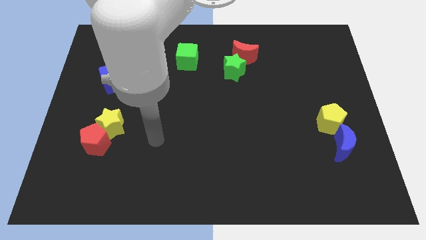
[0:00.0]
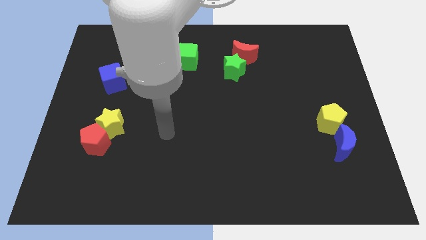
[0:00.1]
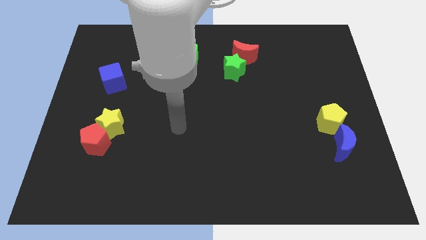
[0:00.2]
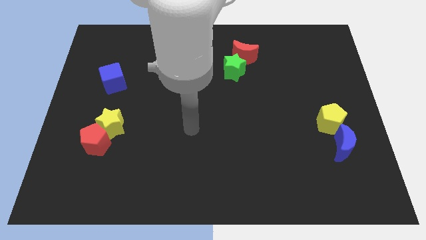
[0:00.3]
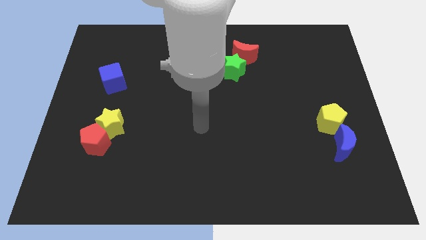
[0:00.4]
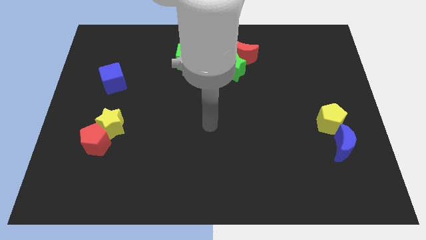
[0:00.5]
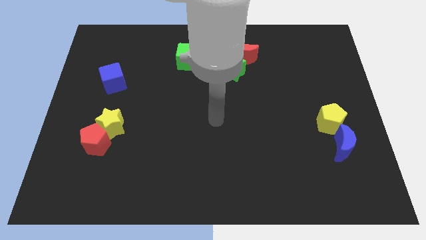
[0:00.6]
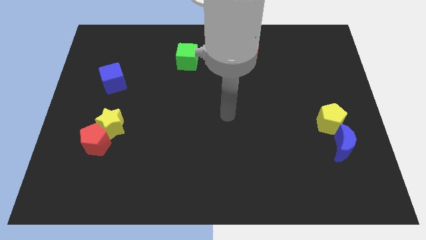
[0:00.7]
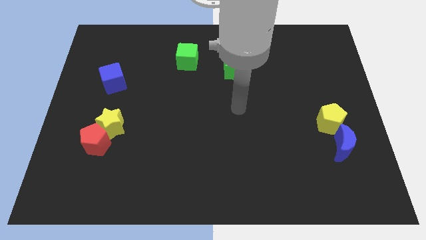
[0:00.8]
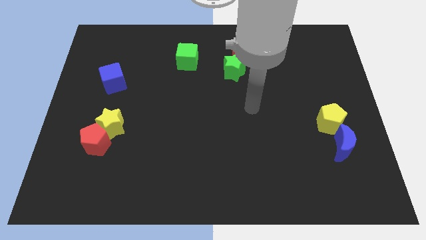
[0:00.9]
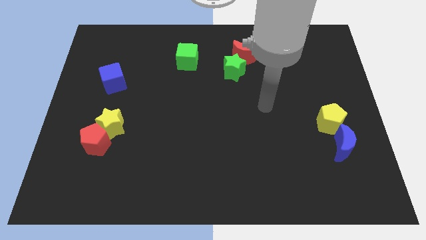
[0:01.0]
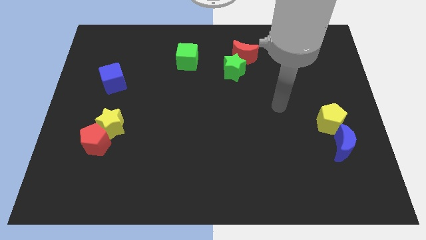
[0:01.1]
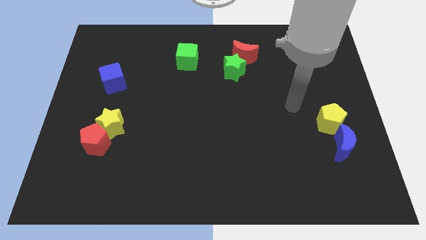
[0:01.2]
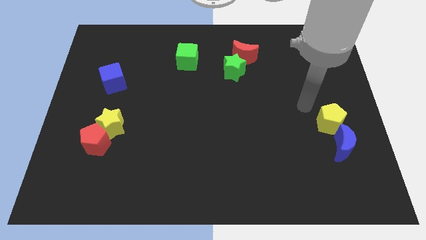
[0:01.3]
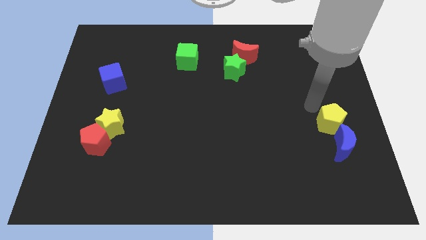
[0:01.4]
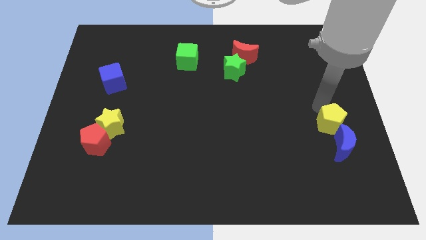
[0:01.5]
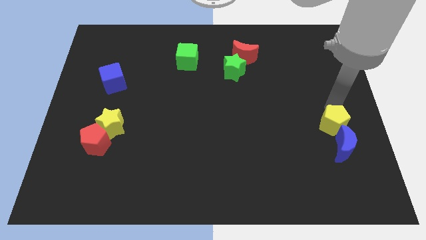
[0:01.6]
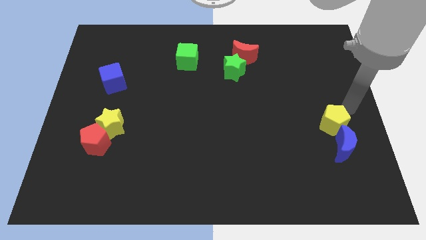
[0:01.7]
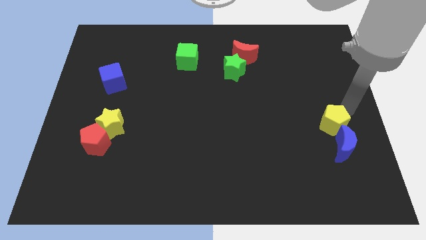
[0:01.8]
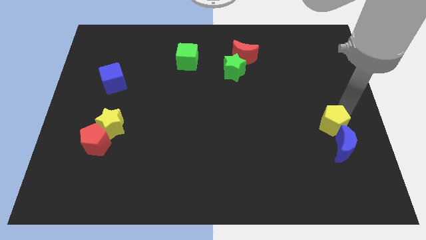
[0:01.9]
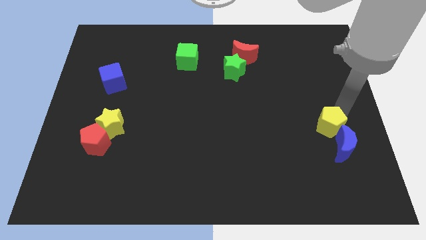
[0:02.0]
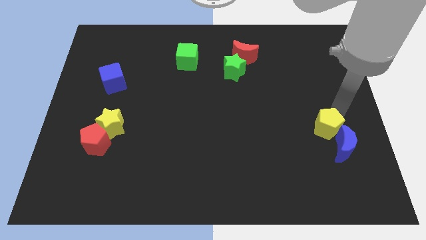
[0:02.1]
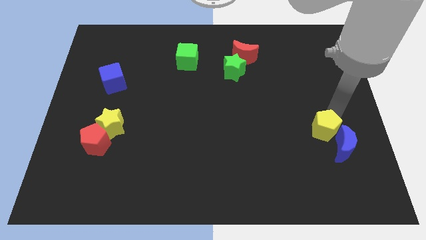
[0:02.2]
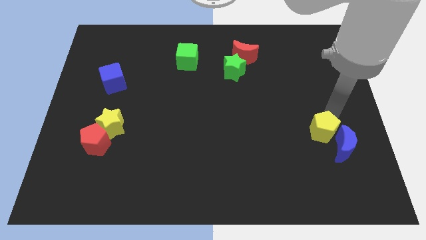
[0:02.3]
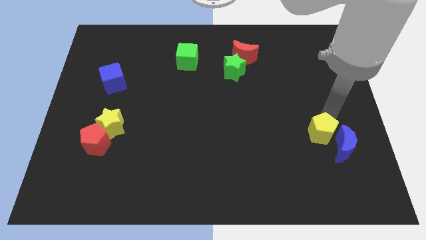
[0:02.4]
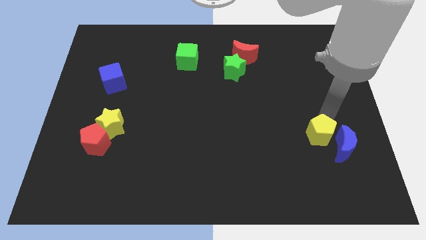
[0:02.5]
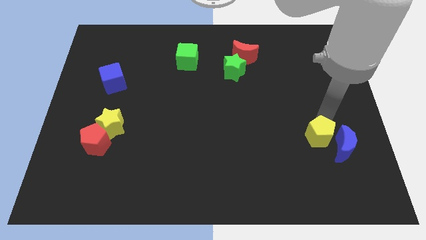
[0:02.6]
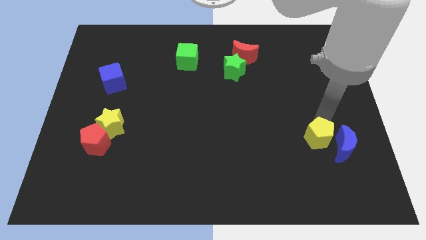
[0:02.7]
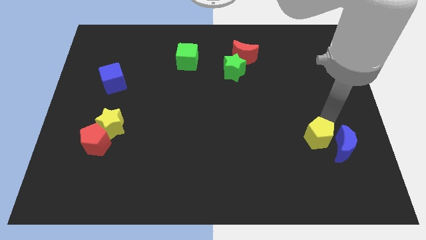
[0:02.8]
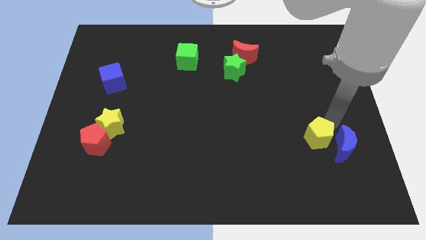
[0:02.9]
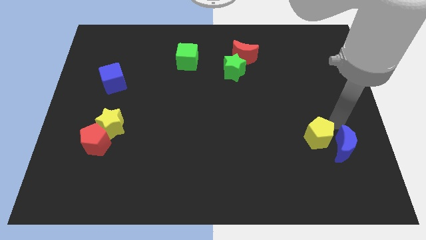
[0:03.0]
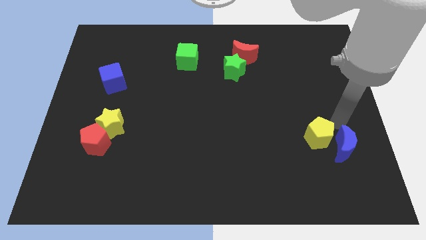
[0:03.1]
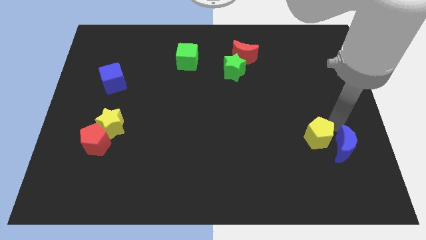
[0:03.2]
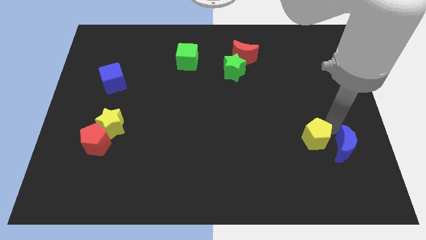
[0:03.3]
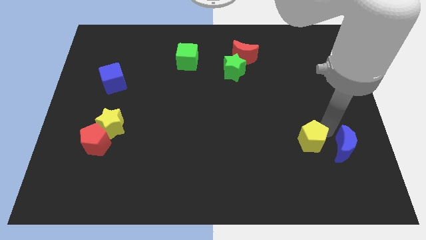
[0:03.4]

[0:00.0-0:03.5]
slightly push the yellow pentagon downwards and left

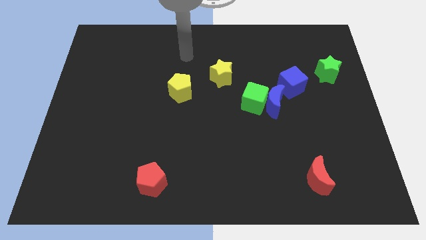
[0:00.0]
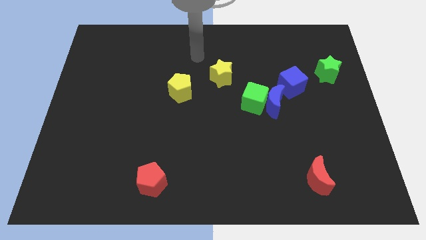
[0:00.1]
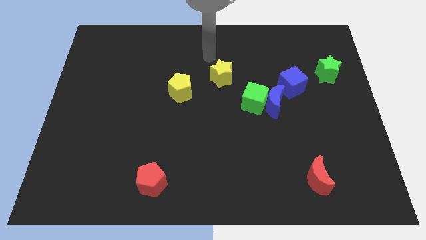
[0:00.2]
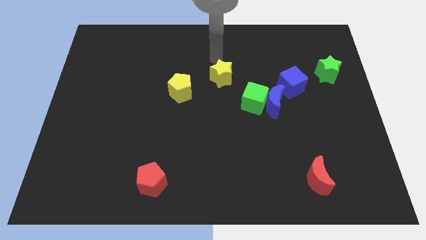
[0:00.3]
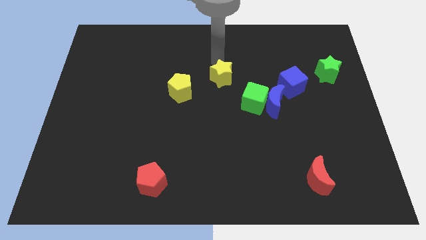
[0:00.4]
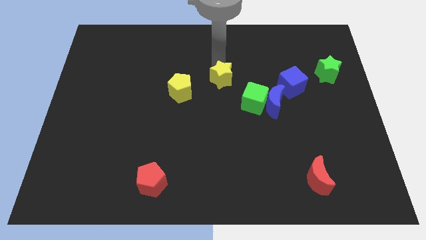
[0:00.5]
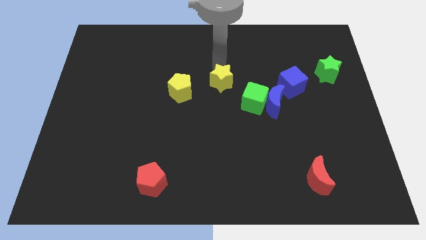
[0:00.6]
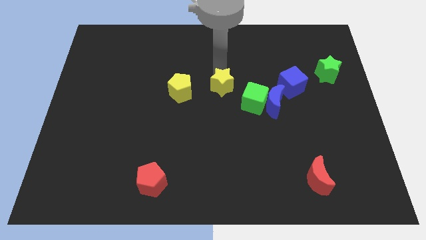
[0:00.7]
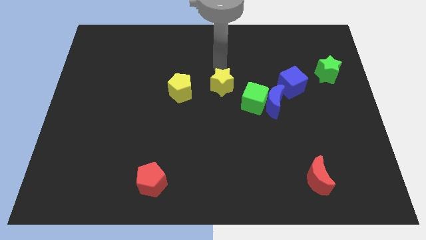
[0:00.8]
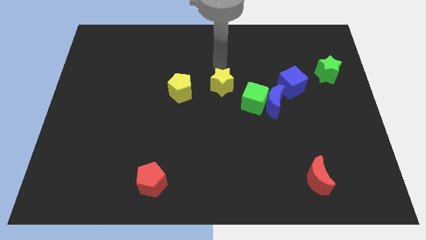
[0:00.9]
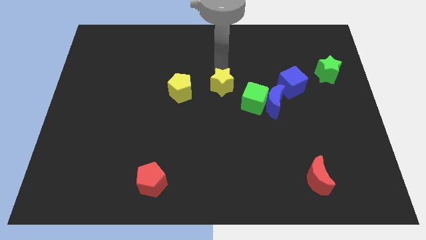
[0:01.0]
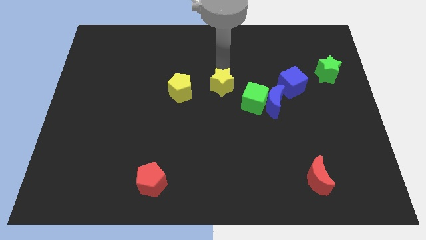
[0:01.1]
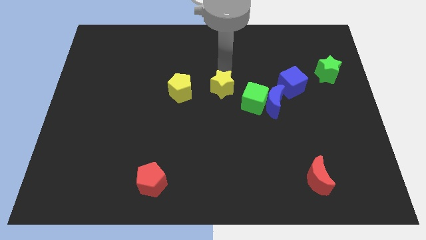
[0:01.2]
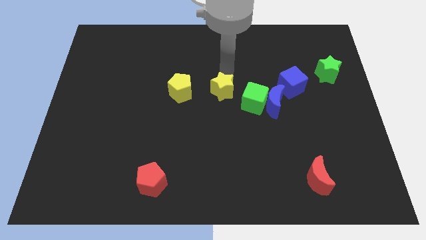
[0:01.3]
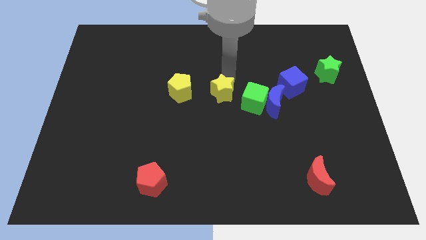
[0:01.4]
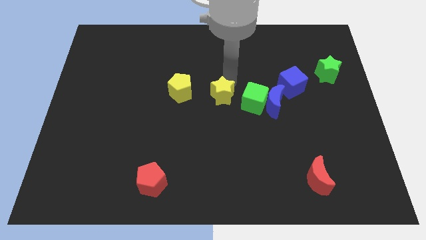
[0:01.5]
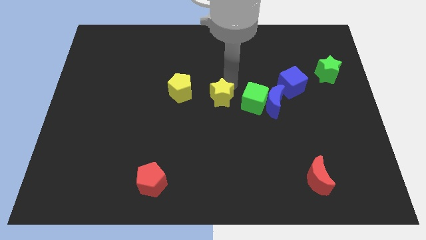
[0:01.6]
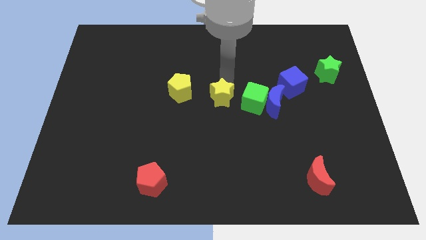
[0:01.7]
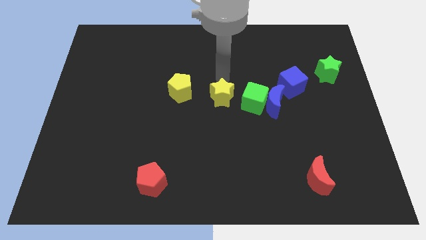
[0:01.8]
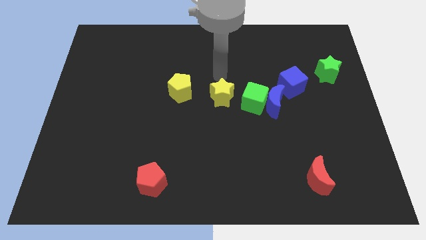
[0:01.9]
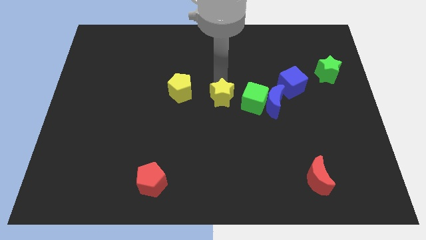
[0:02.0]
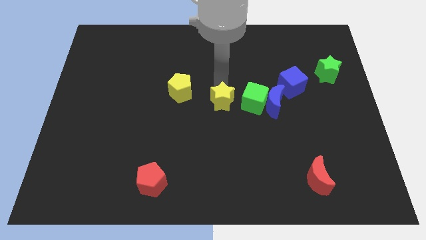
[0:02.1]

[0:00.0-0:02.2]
move the yellow star down somewhat

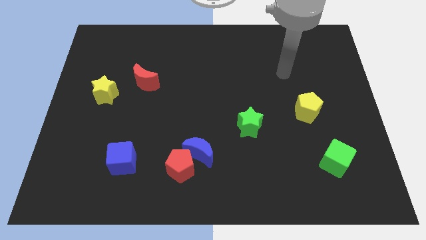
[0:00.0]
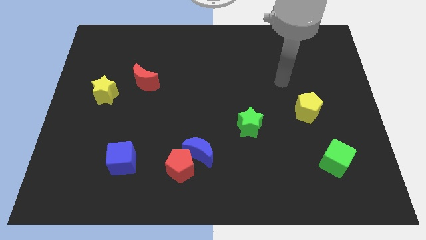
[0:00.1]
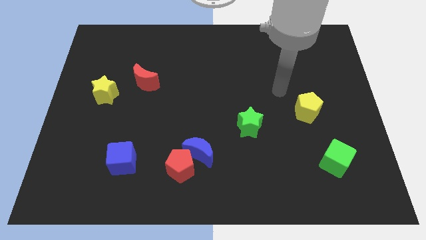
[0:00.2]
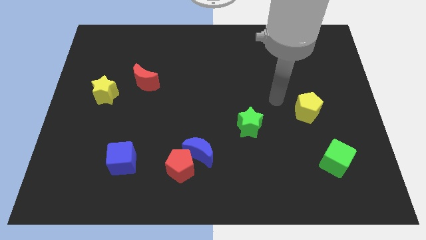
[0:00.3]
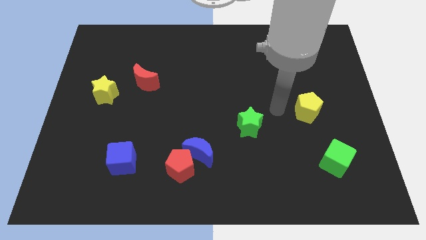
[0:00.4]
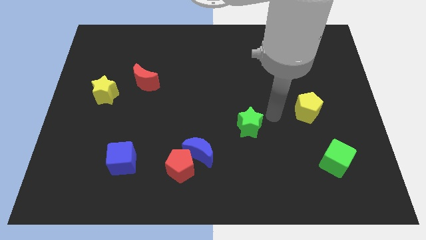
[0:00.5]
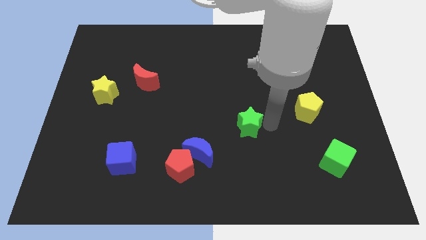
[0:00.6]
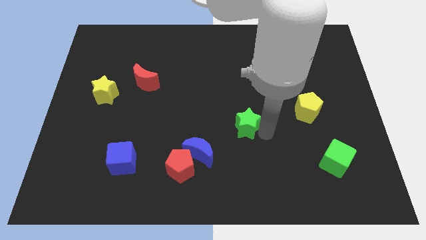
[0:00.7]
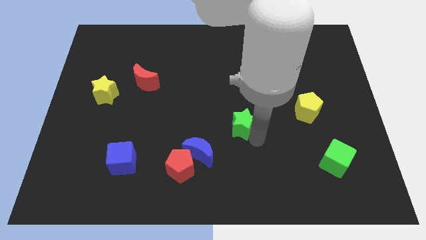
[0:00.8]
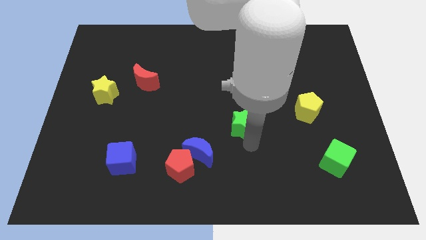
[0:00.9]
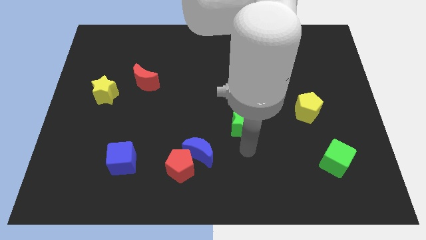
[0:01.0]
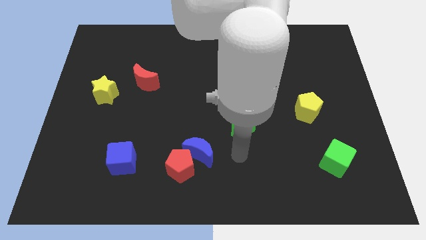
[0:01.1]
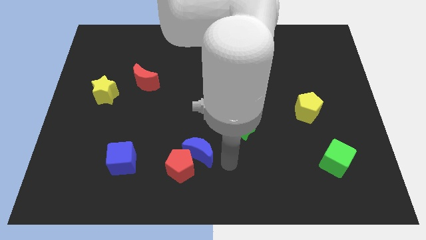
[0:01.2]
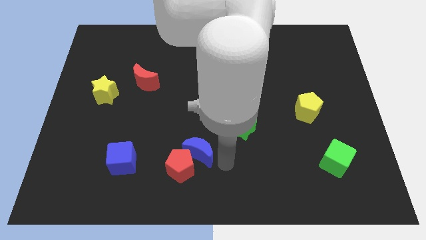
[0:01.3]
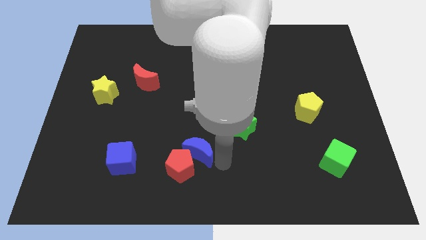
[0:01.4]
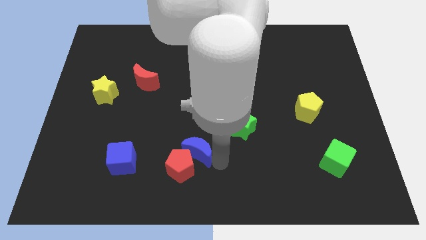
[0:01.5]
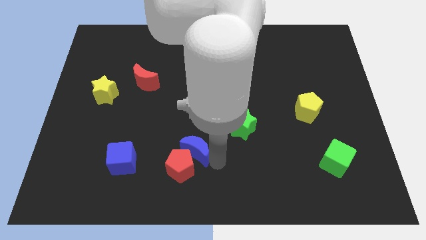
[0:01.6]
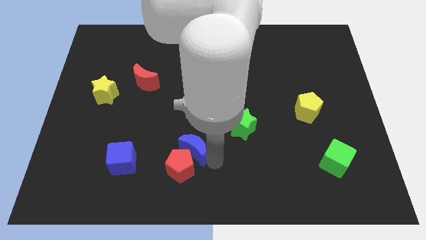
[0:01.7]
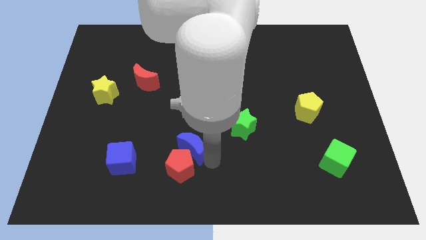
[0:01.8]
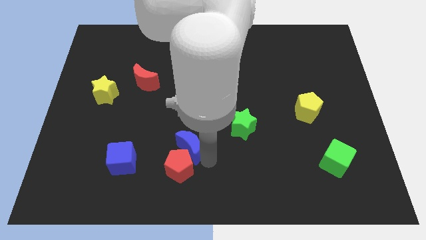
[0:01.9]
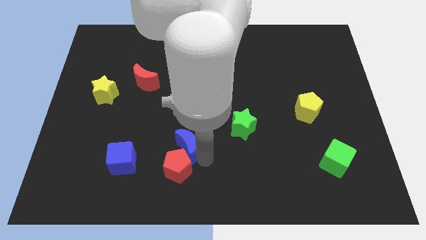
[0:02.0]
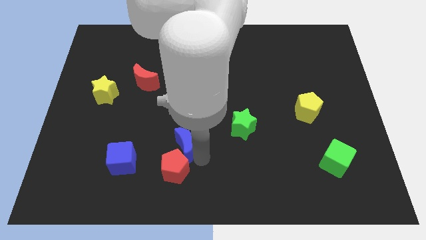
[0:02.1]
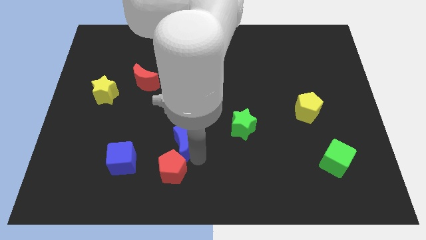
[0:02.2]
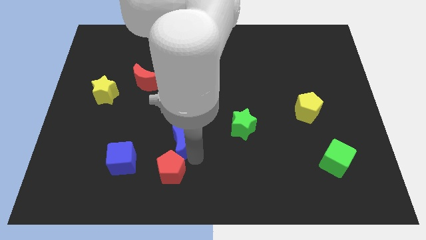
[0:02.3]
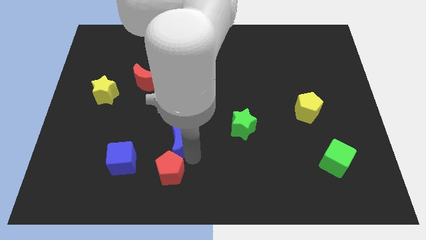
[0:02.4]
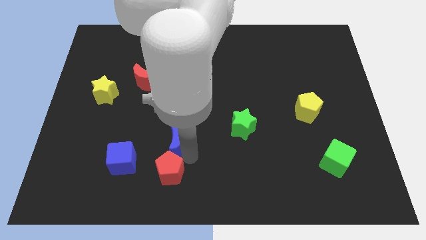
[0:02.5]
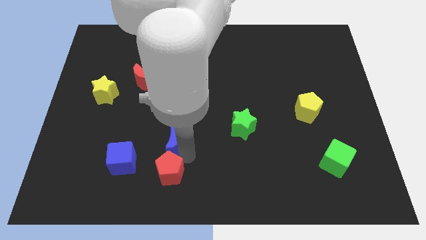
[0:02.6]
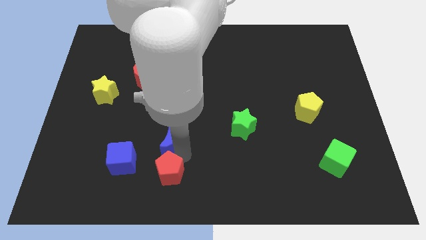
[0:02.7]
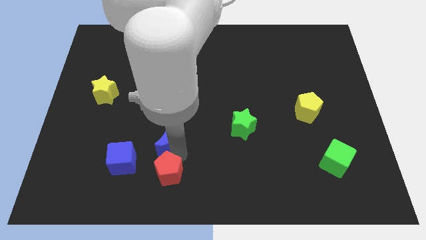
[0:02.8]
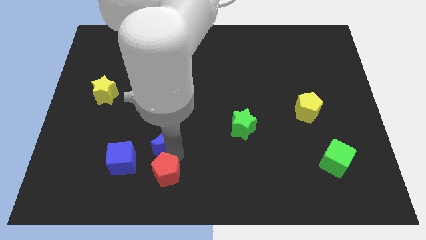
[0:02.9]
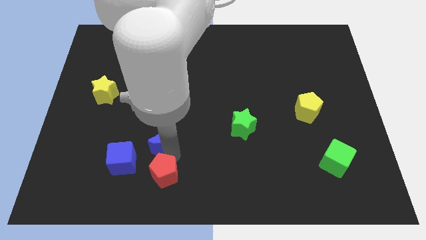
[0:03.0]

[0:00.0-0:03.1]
move the blue moon a little bit up and then to the left
